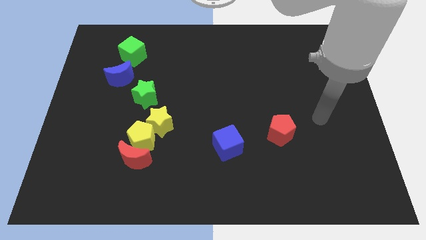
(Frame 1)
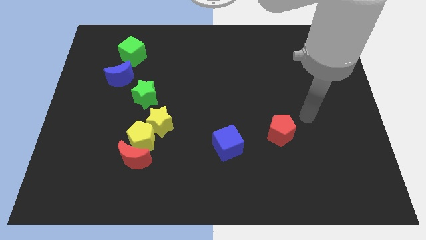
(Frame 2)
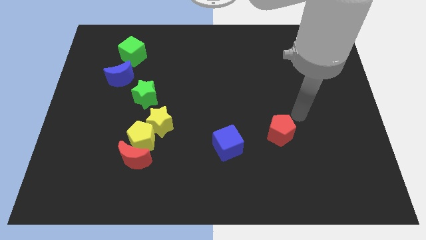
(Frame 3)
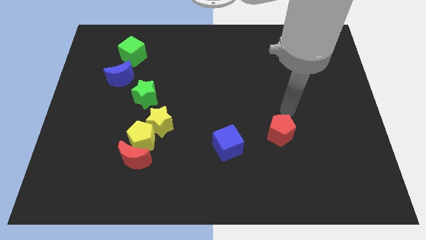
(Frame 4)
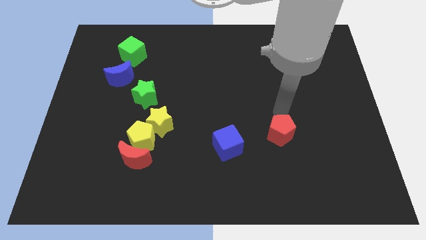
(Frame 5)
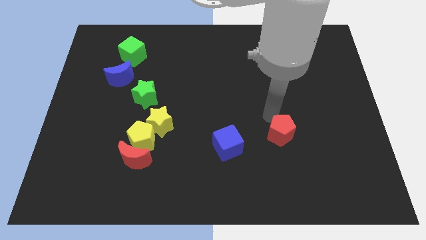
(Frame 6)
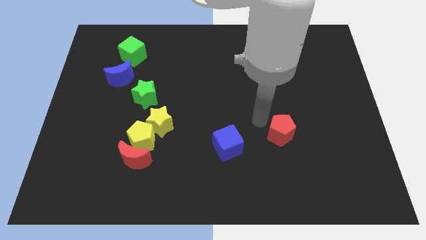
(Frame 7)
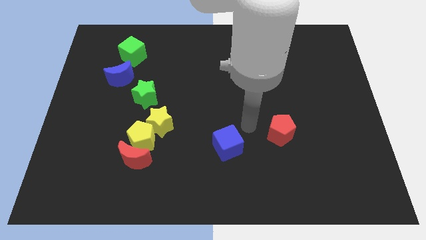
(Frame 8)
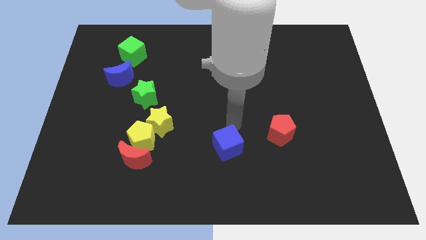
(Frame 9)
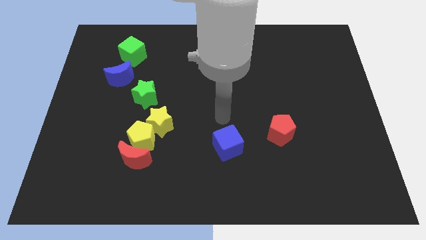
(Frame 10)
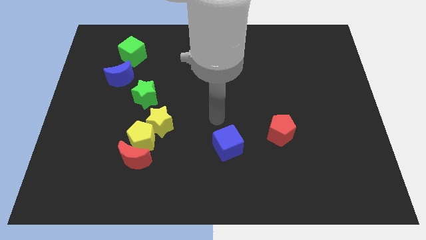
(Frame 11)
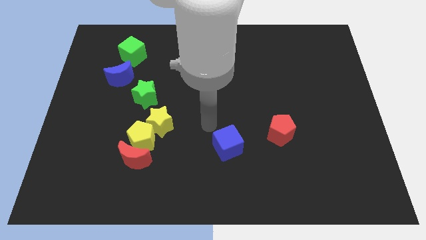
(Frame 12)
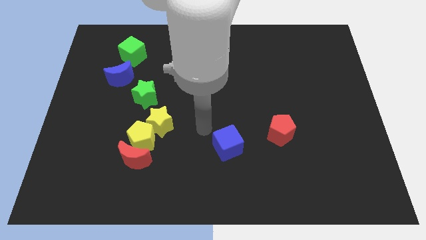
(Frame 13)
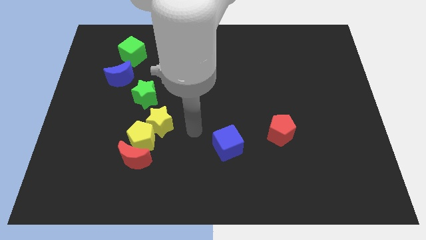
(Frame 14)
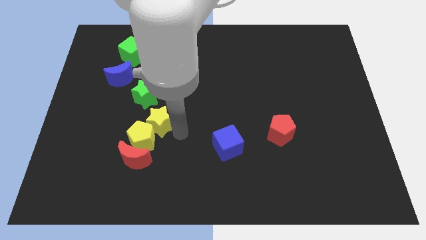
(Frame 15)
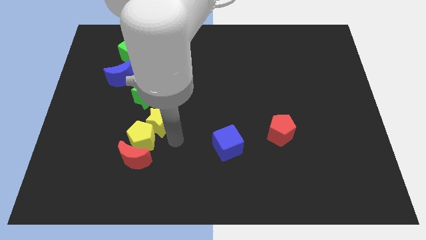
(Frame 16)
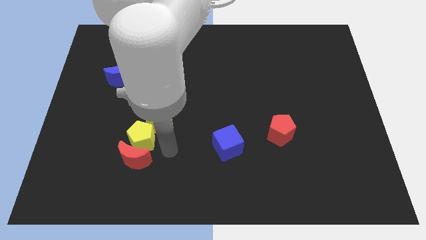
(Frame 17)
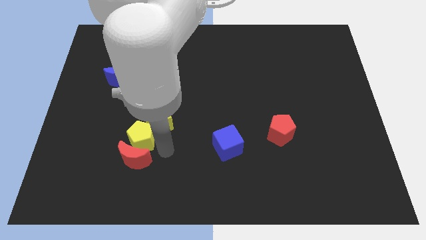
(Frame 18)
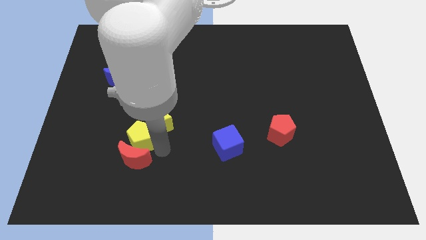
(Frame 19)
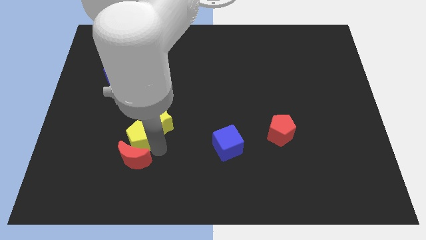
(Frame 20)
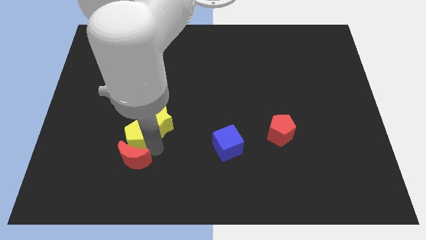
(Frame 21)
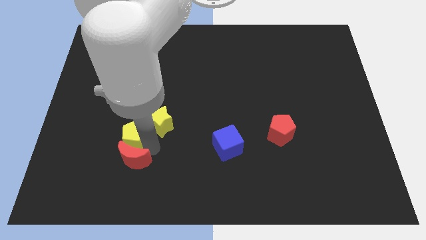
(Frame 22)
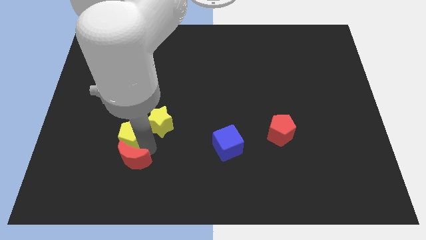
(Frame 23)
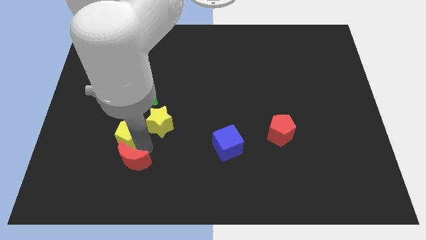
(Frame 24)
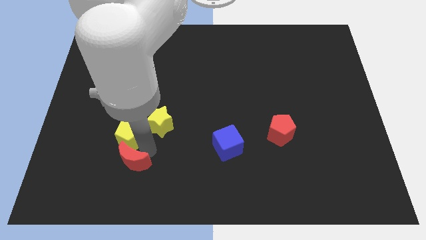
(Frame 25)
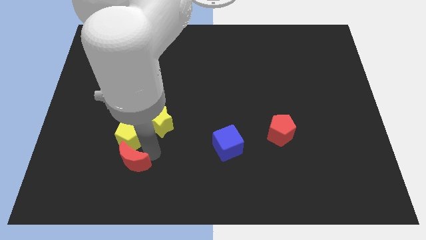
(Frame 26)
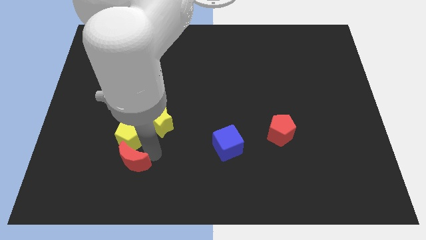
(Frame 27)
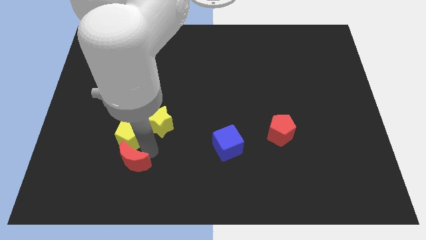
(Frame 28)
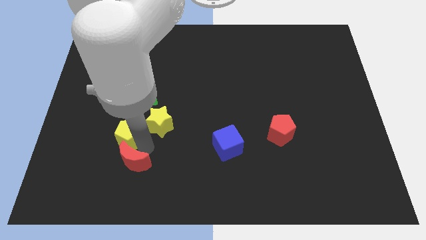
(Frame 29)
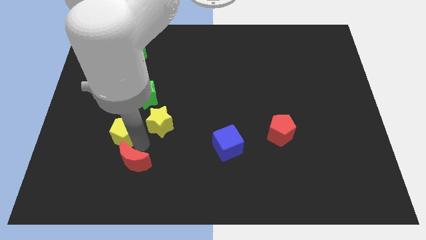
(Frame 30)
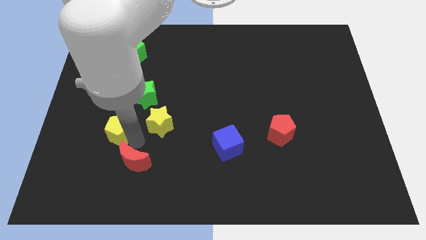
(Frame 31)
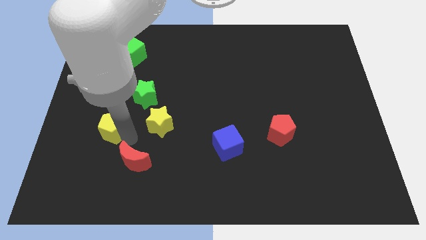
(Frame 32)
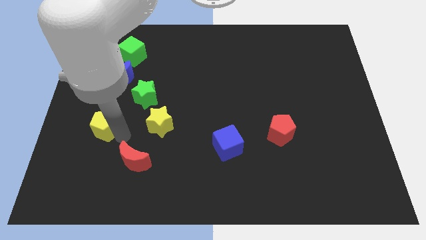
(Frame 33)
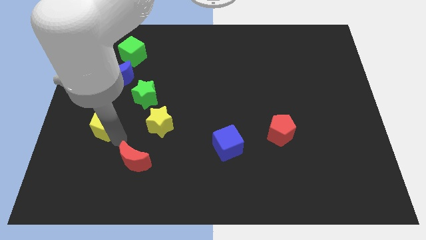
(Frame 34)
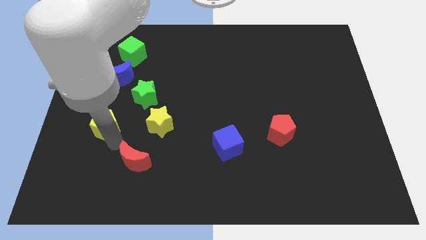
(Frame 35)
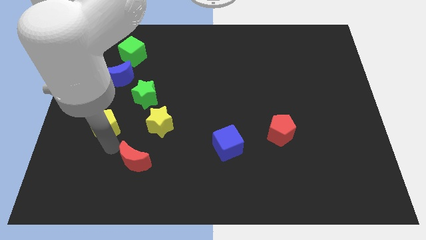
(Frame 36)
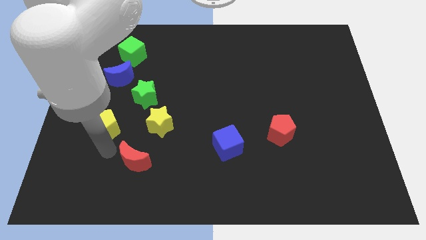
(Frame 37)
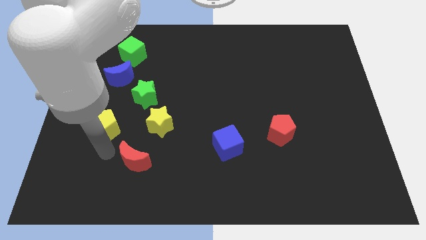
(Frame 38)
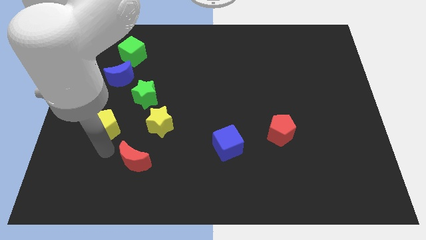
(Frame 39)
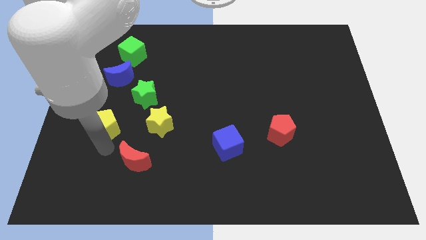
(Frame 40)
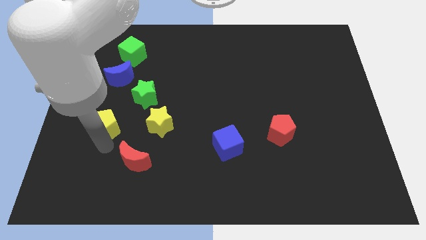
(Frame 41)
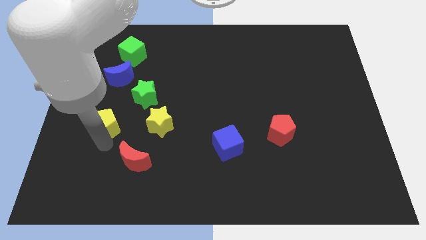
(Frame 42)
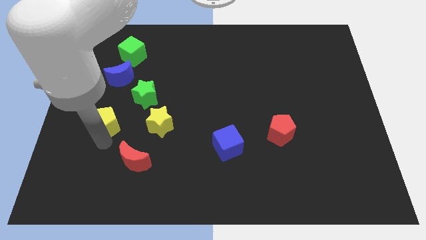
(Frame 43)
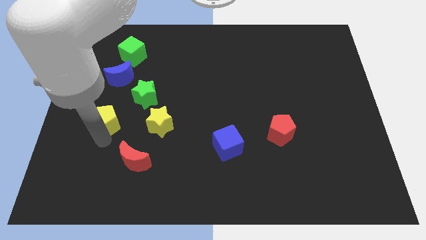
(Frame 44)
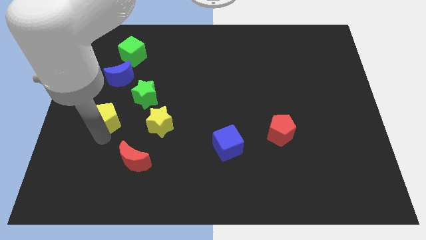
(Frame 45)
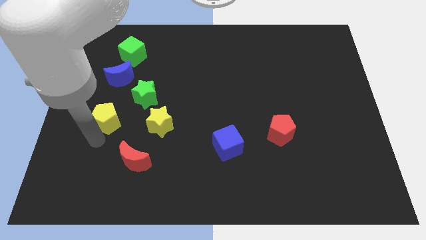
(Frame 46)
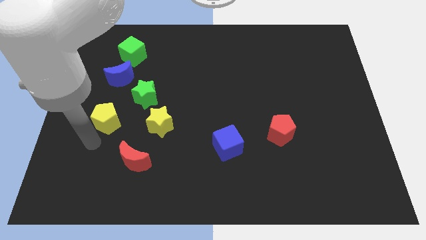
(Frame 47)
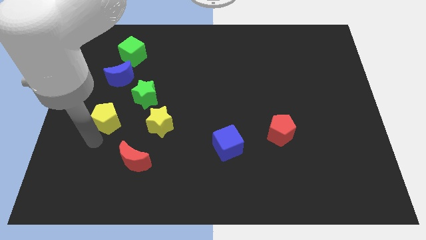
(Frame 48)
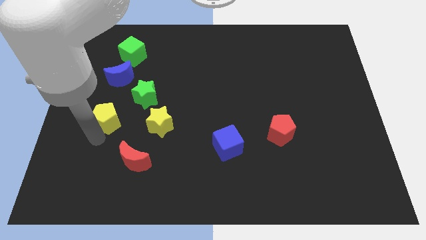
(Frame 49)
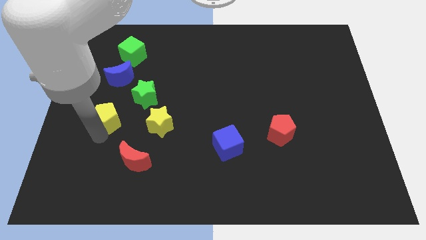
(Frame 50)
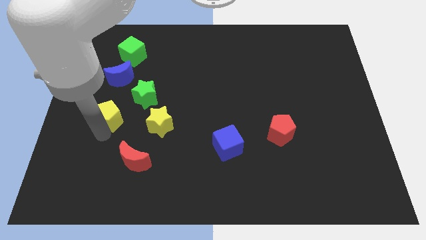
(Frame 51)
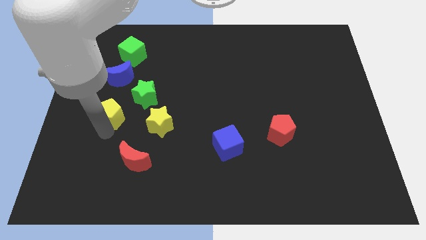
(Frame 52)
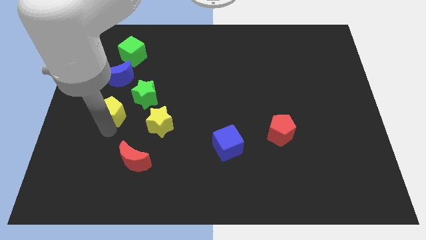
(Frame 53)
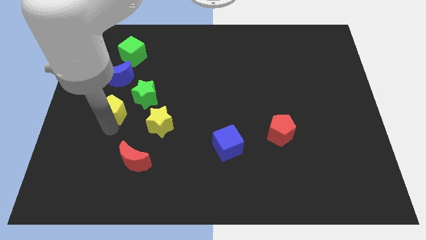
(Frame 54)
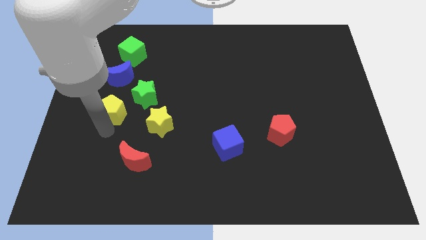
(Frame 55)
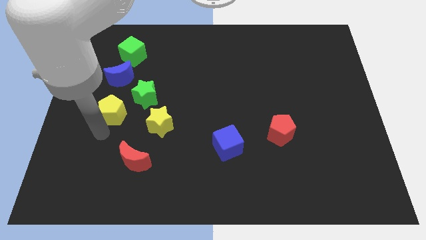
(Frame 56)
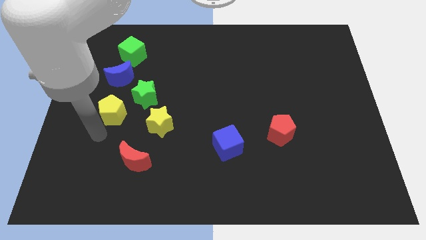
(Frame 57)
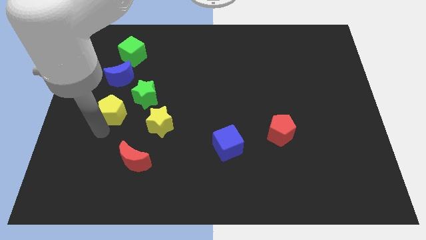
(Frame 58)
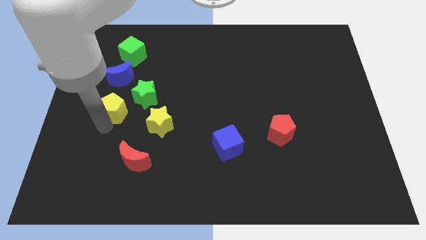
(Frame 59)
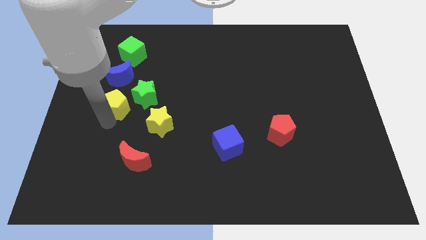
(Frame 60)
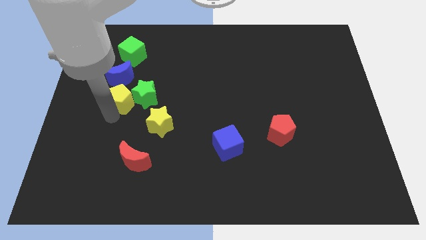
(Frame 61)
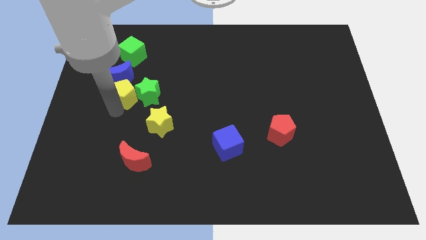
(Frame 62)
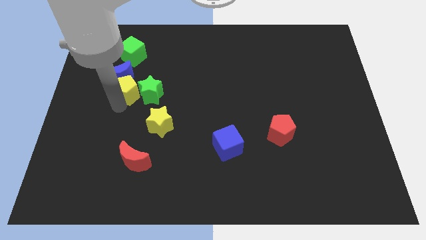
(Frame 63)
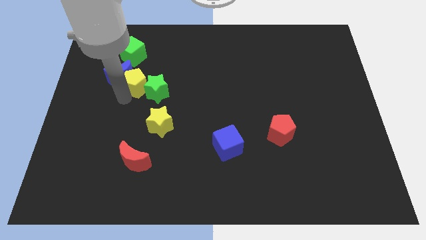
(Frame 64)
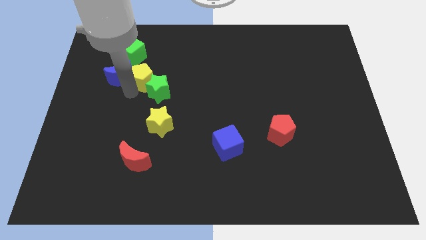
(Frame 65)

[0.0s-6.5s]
push the yellow pentagon to the top side of the green star
